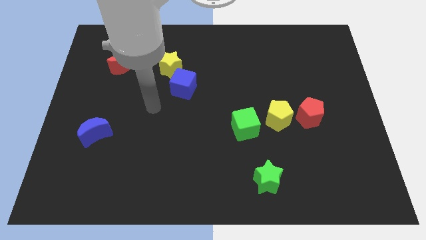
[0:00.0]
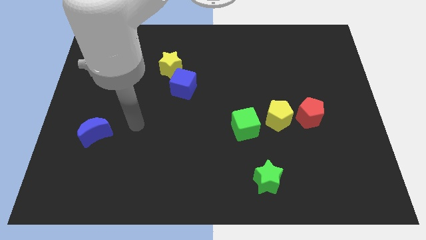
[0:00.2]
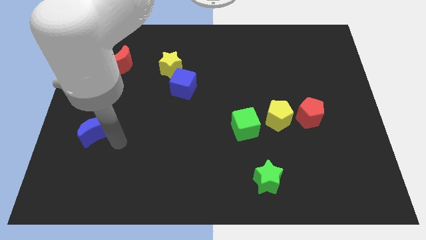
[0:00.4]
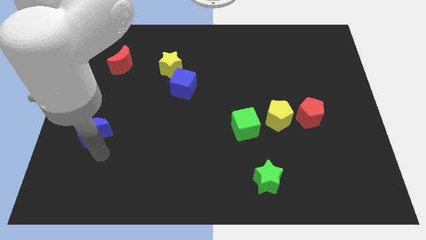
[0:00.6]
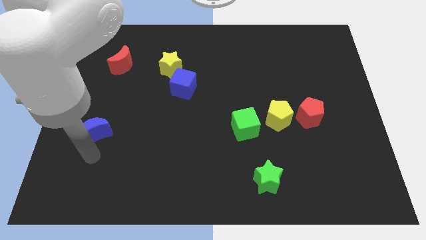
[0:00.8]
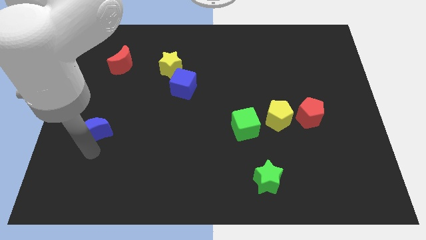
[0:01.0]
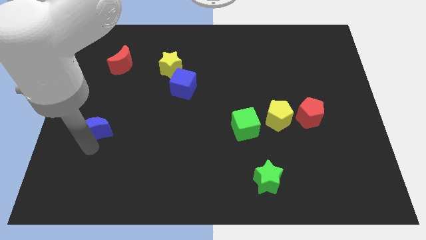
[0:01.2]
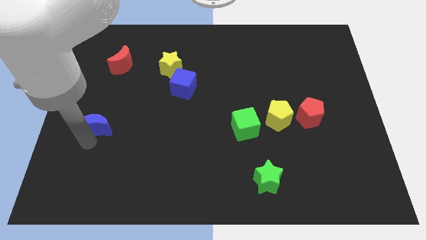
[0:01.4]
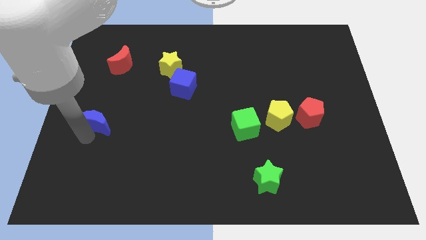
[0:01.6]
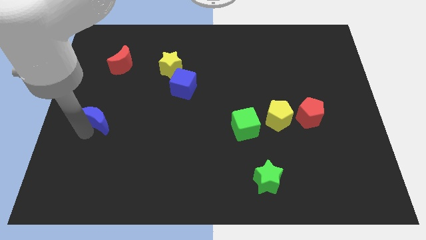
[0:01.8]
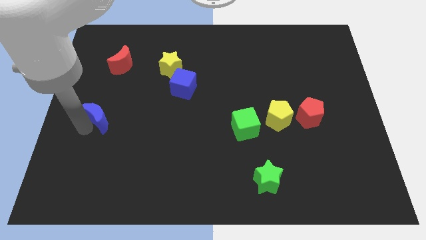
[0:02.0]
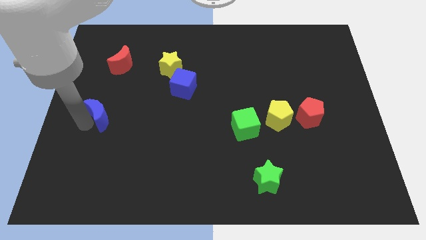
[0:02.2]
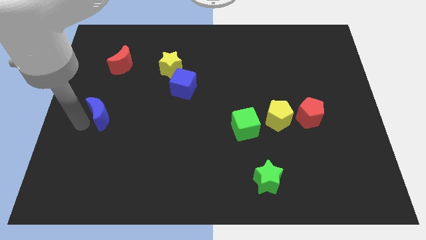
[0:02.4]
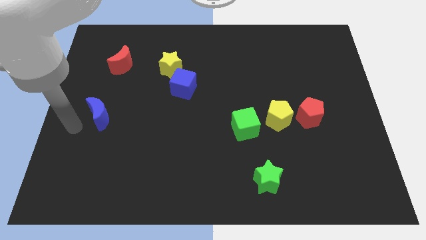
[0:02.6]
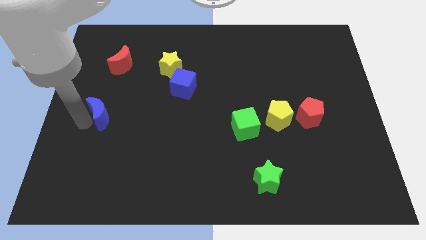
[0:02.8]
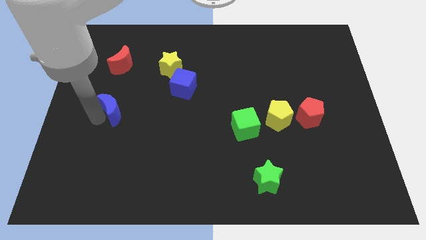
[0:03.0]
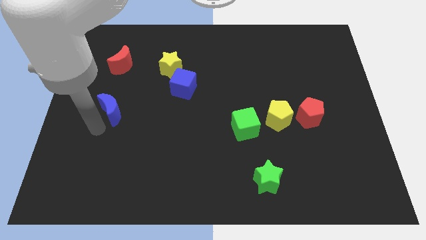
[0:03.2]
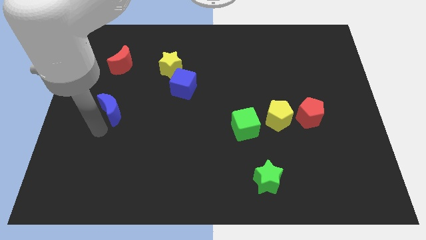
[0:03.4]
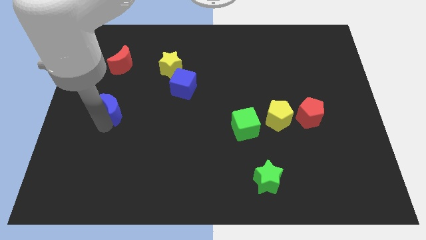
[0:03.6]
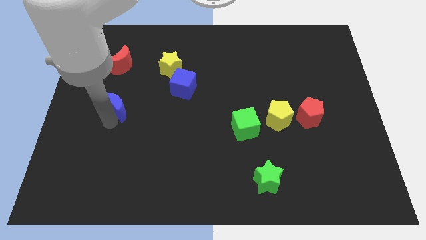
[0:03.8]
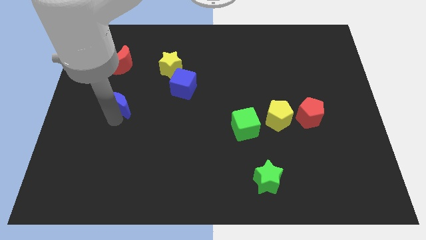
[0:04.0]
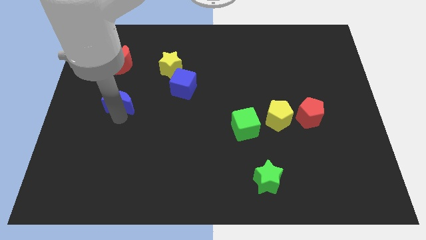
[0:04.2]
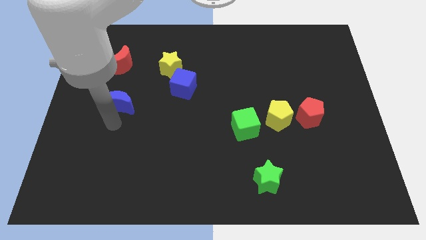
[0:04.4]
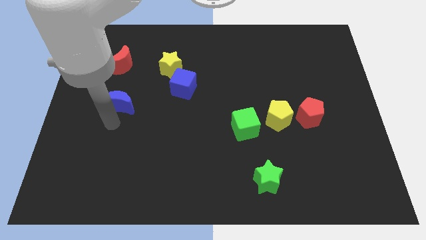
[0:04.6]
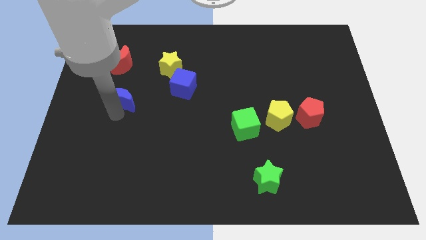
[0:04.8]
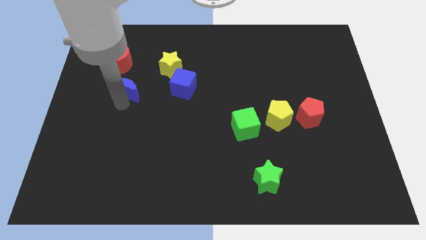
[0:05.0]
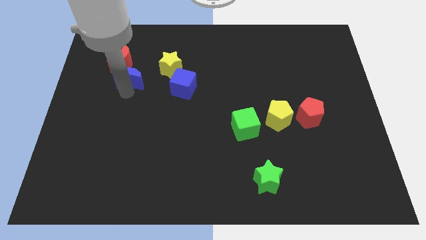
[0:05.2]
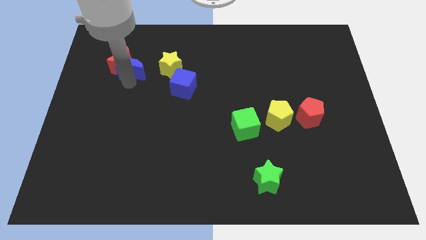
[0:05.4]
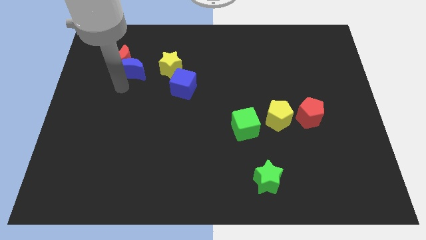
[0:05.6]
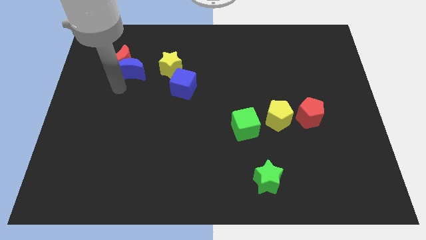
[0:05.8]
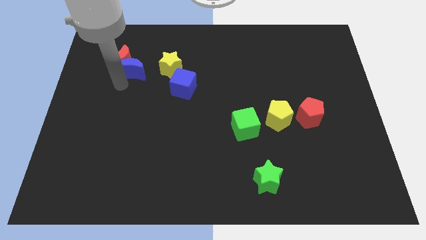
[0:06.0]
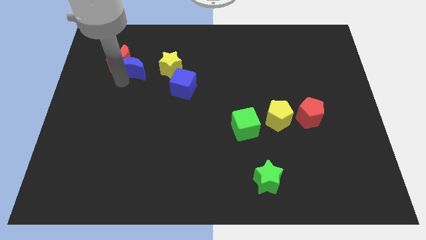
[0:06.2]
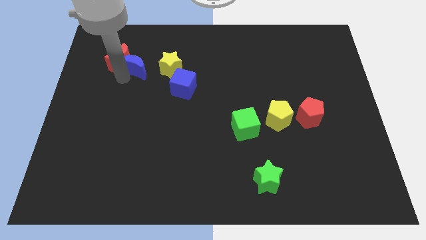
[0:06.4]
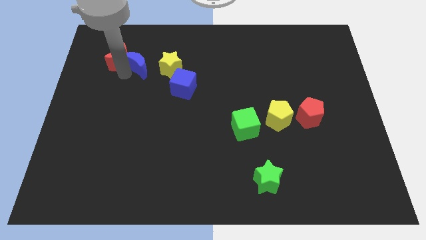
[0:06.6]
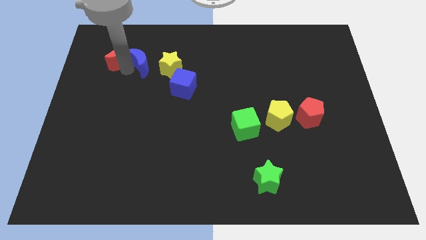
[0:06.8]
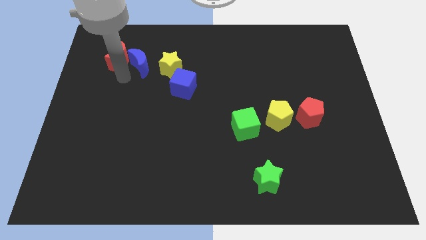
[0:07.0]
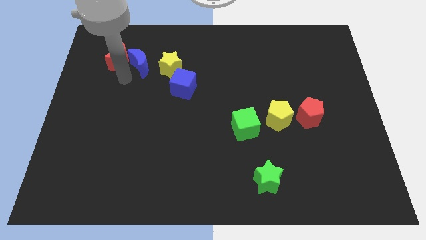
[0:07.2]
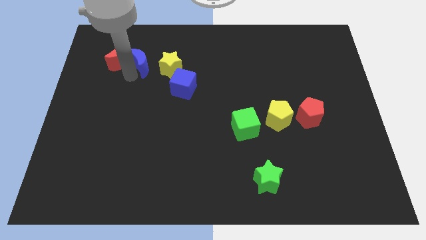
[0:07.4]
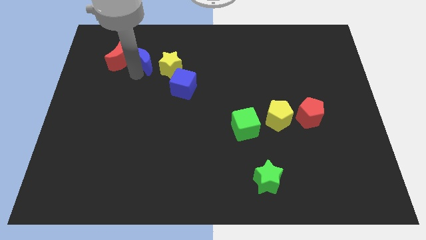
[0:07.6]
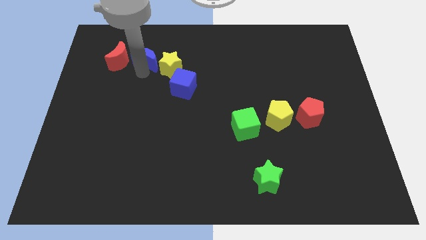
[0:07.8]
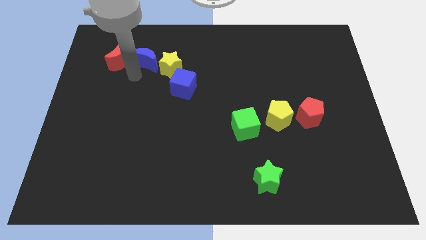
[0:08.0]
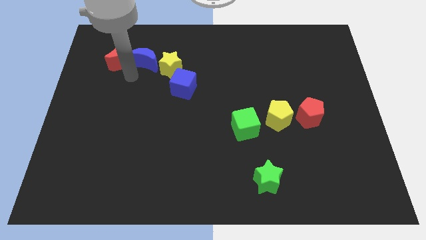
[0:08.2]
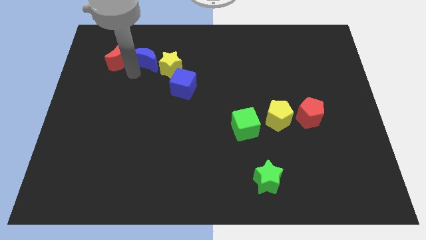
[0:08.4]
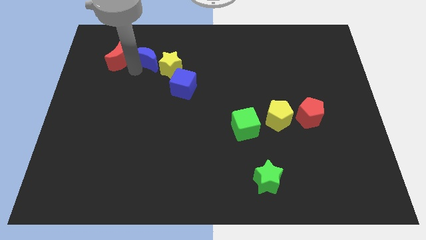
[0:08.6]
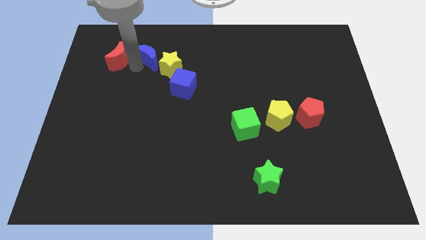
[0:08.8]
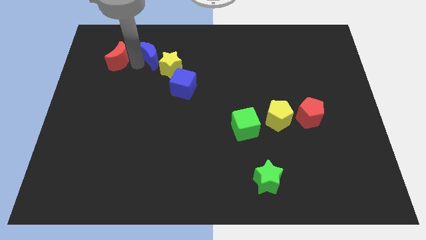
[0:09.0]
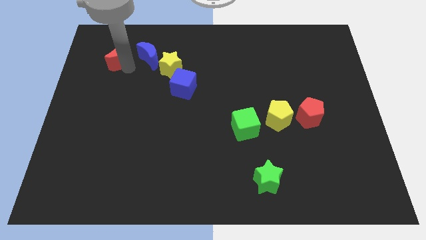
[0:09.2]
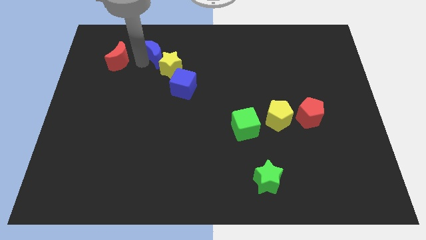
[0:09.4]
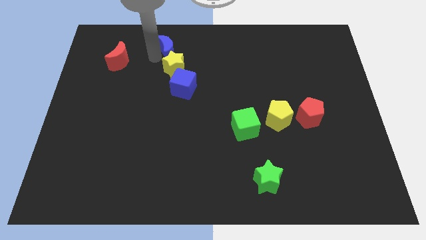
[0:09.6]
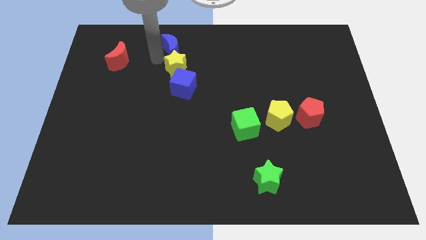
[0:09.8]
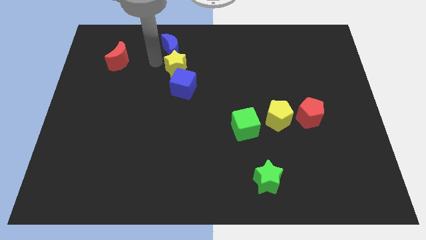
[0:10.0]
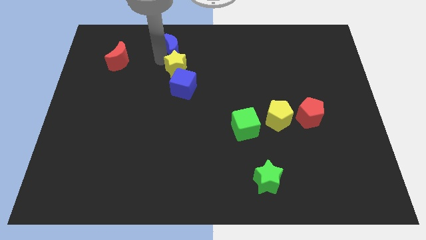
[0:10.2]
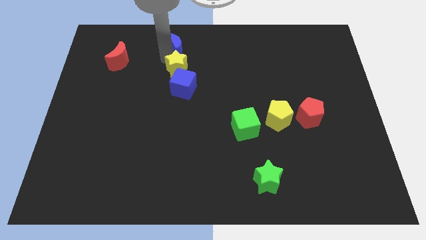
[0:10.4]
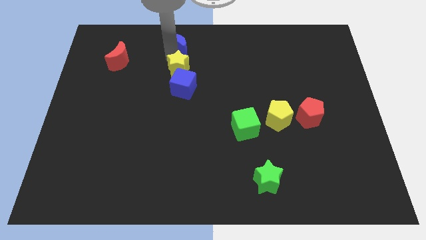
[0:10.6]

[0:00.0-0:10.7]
move the blue moon to the towards your base

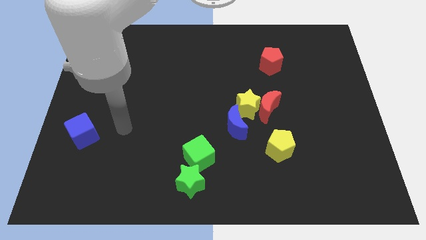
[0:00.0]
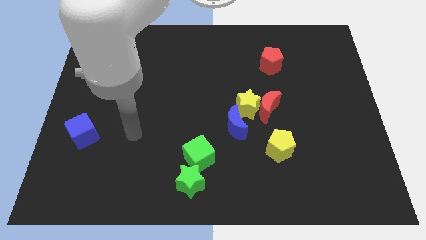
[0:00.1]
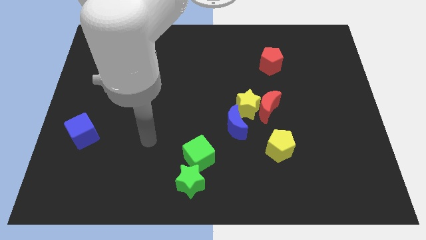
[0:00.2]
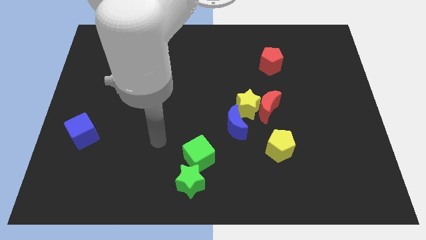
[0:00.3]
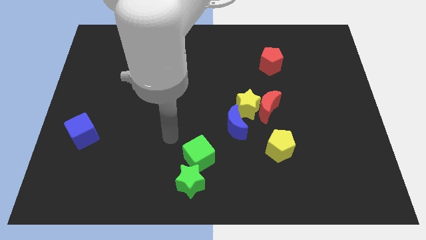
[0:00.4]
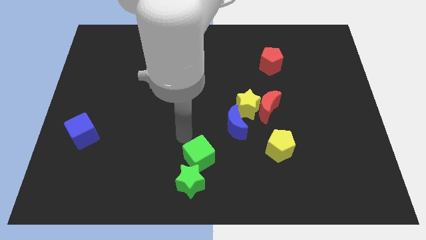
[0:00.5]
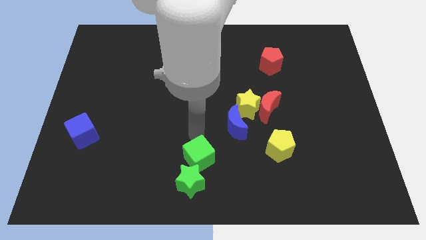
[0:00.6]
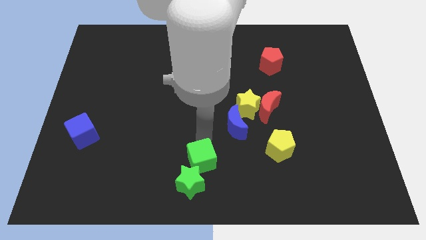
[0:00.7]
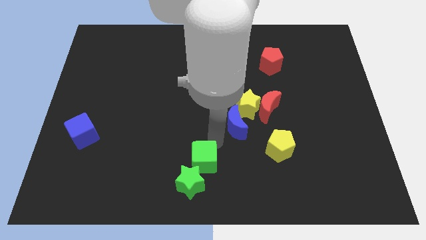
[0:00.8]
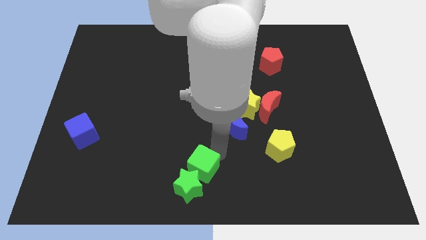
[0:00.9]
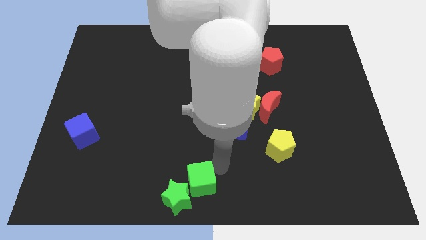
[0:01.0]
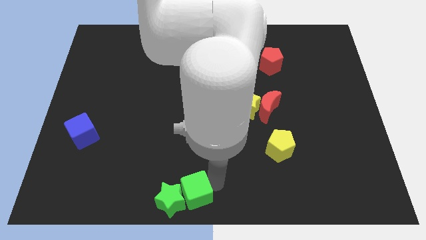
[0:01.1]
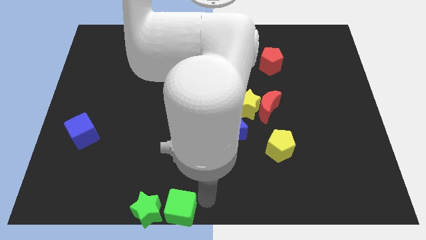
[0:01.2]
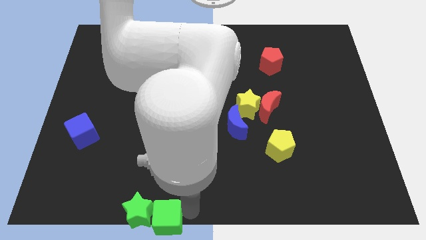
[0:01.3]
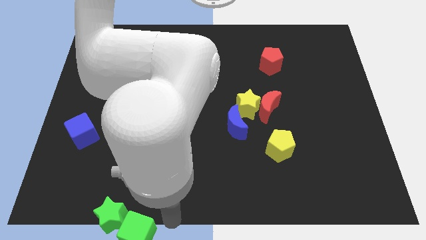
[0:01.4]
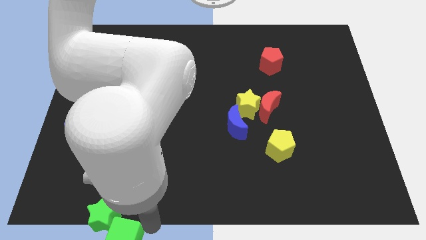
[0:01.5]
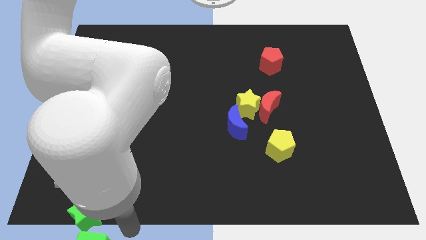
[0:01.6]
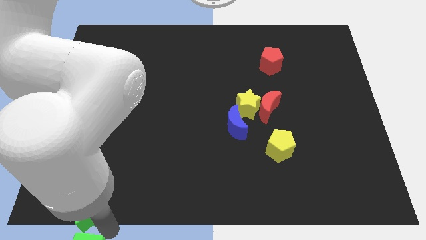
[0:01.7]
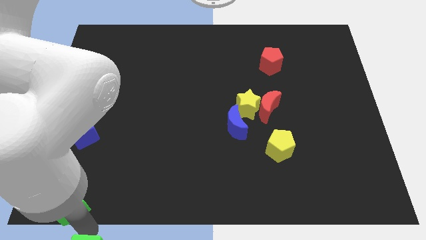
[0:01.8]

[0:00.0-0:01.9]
slide the green star to the lower left corner
